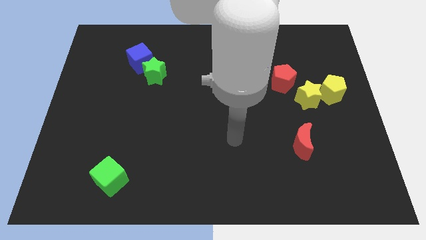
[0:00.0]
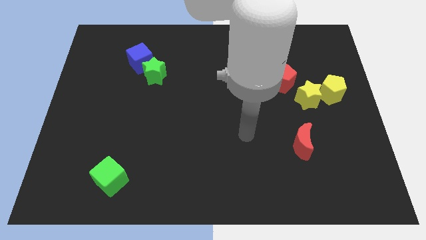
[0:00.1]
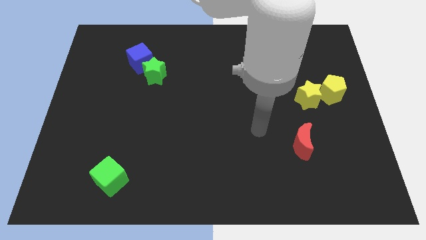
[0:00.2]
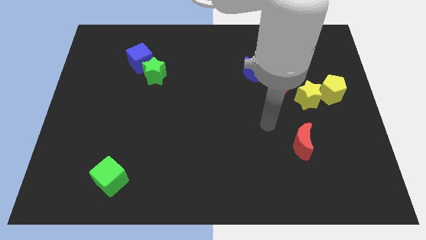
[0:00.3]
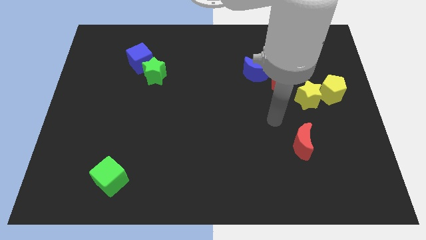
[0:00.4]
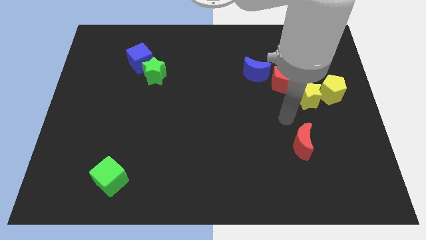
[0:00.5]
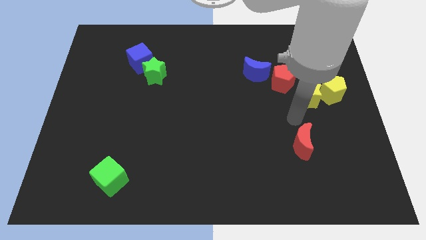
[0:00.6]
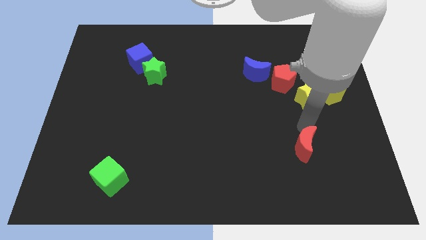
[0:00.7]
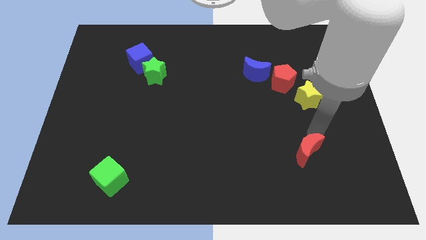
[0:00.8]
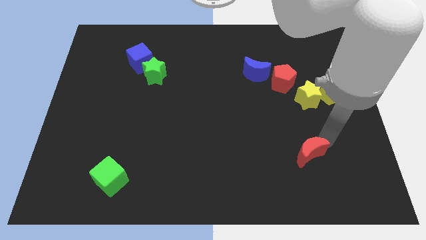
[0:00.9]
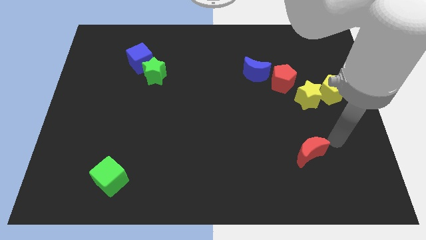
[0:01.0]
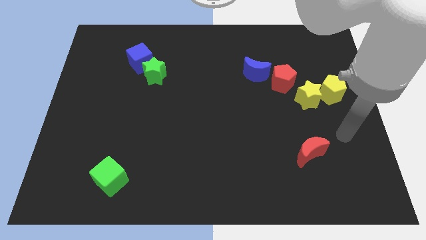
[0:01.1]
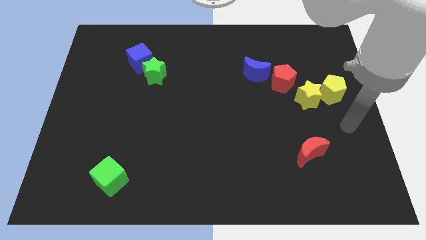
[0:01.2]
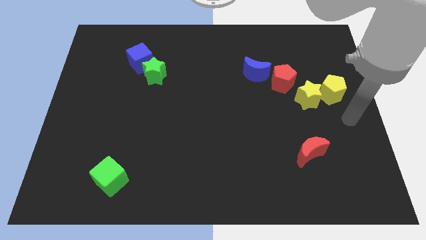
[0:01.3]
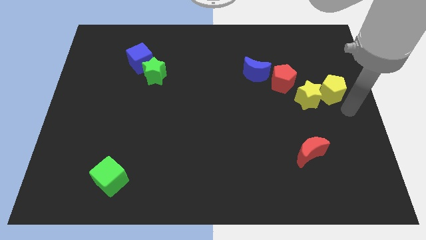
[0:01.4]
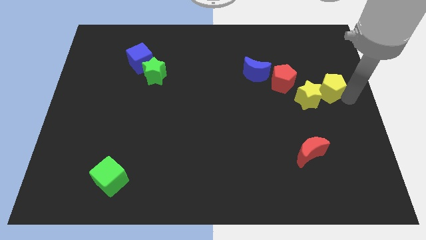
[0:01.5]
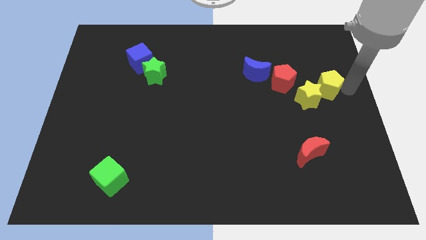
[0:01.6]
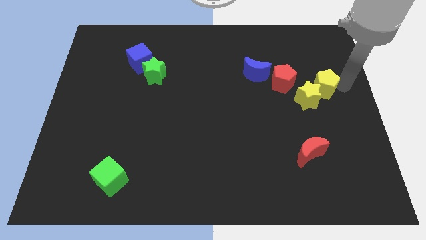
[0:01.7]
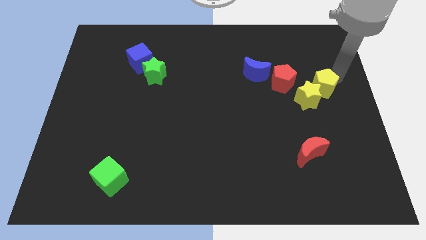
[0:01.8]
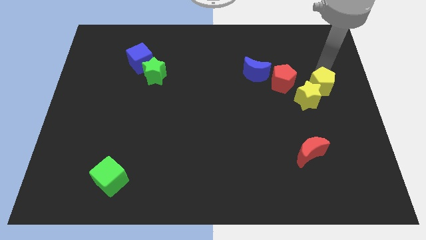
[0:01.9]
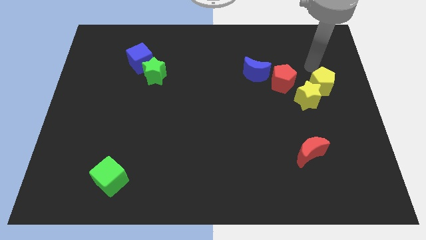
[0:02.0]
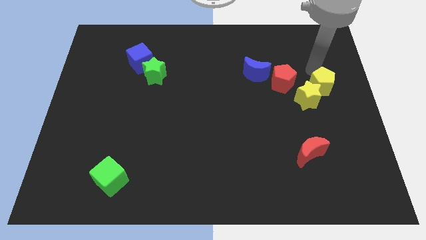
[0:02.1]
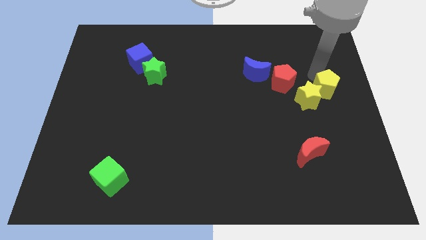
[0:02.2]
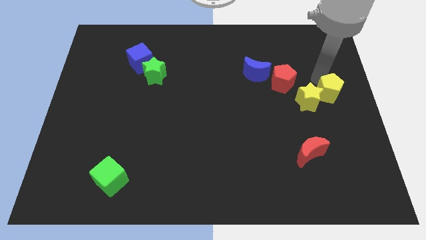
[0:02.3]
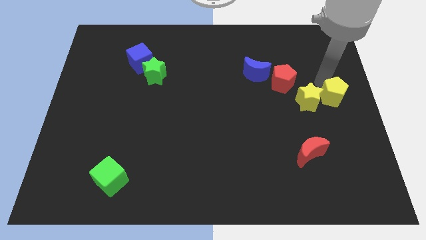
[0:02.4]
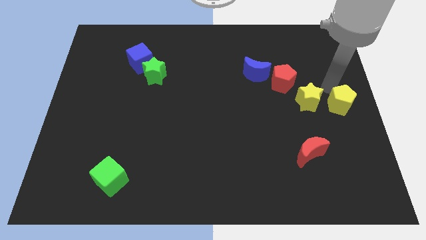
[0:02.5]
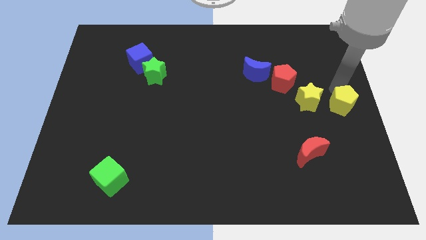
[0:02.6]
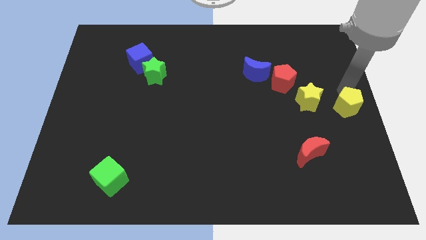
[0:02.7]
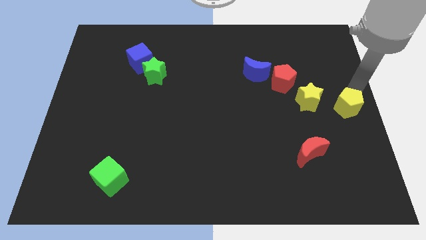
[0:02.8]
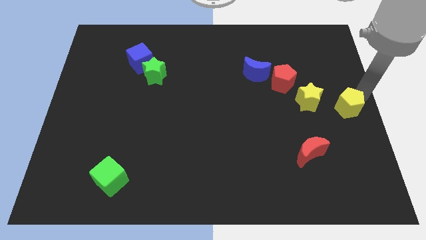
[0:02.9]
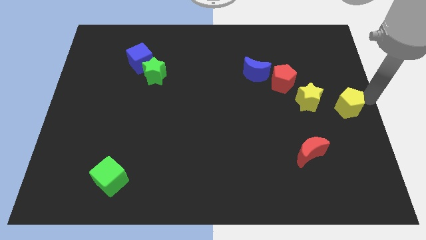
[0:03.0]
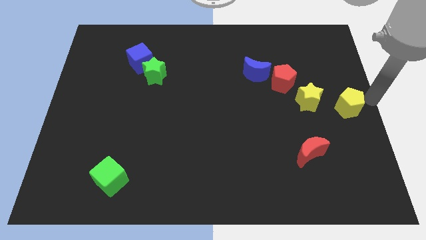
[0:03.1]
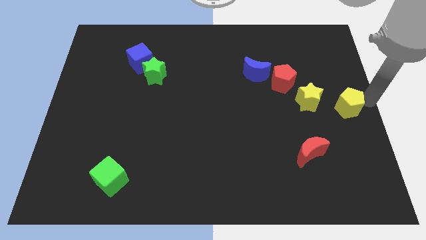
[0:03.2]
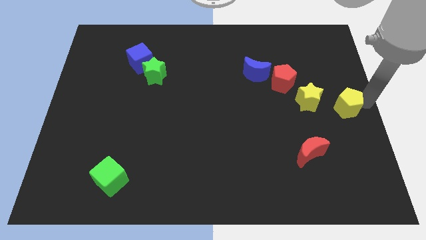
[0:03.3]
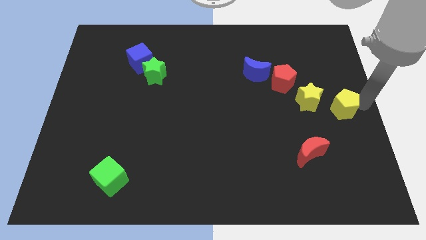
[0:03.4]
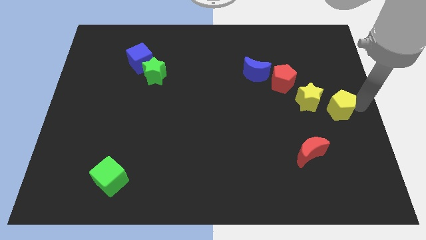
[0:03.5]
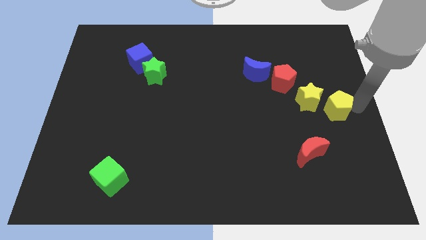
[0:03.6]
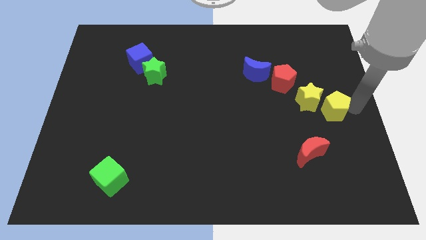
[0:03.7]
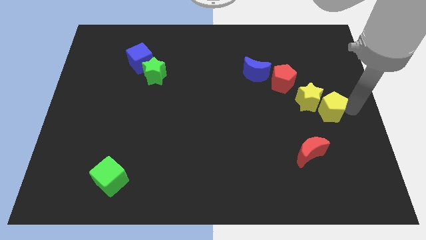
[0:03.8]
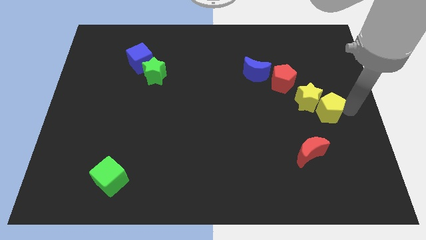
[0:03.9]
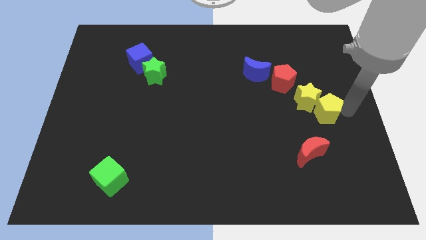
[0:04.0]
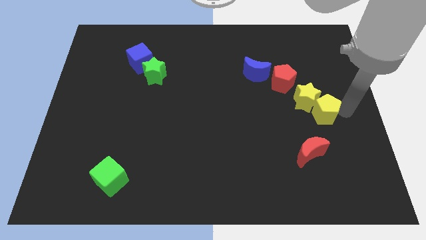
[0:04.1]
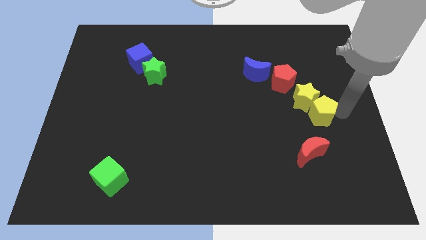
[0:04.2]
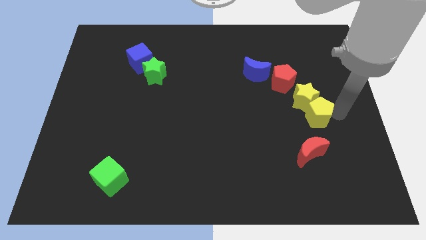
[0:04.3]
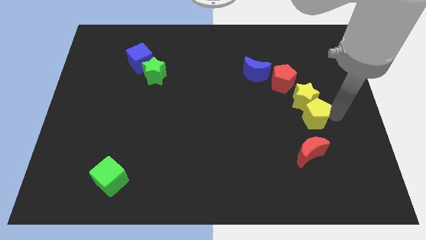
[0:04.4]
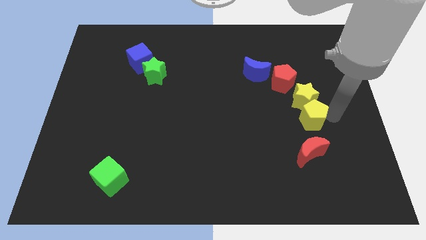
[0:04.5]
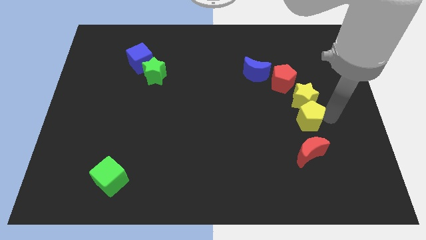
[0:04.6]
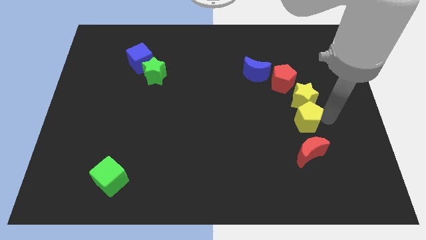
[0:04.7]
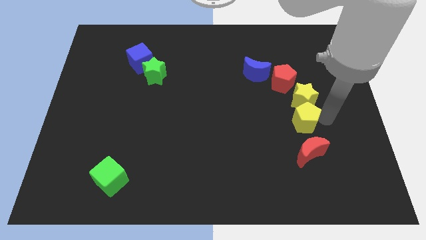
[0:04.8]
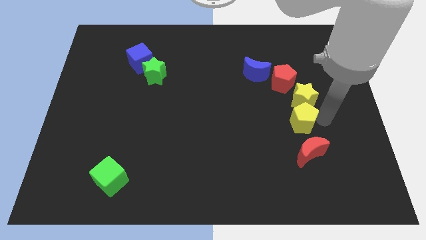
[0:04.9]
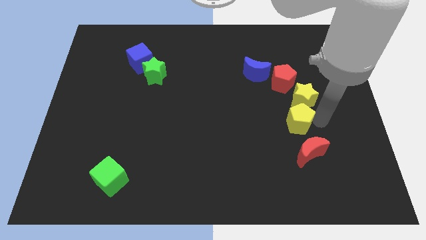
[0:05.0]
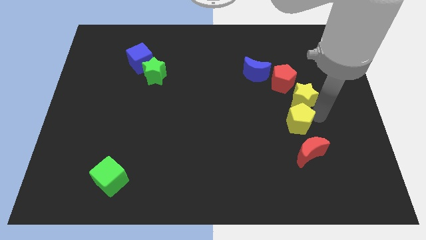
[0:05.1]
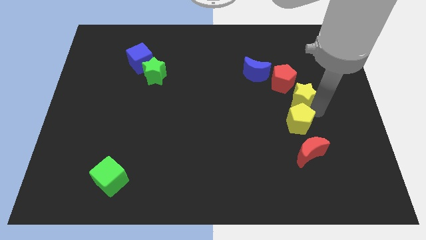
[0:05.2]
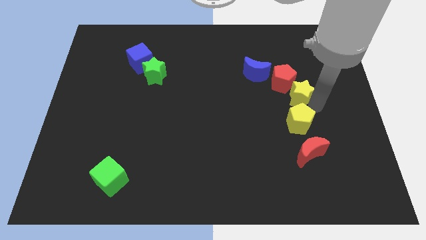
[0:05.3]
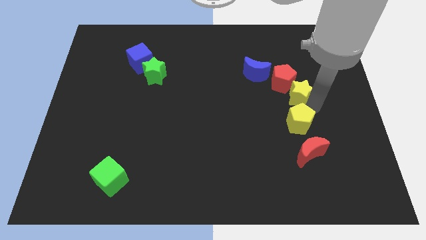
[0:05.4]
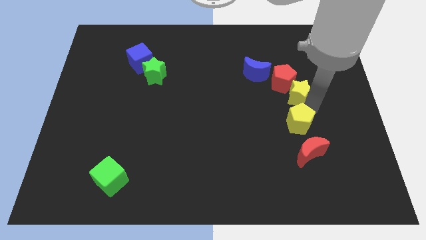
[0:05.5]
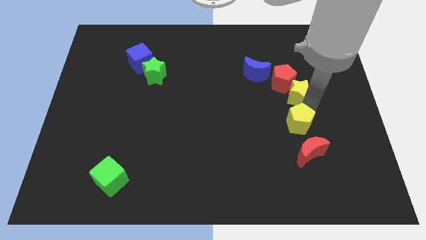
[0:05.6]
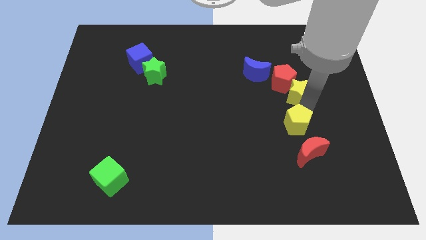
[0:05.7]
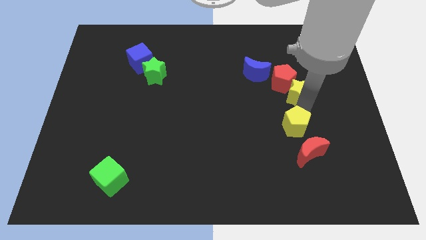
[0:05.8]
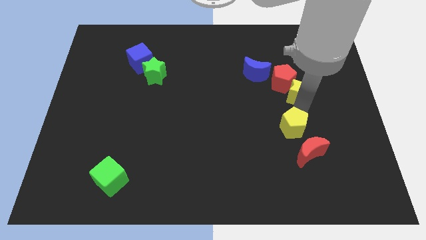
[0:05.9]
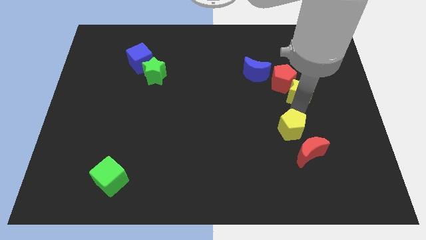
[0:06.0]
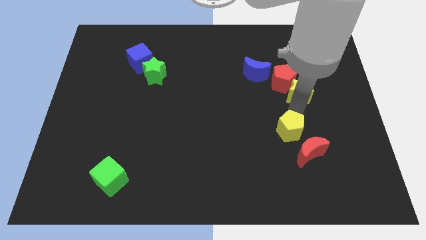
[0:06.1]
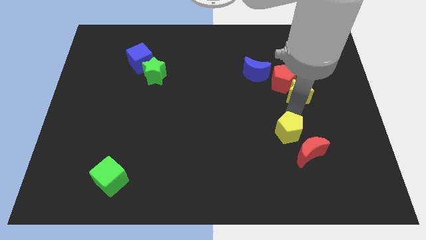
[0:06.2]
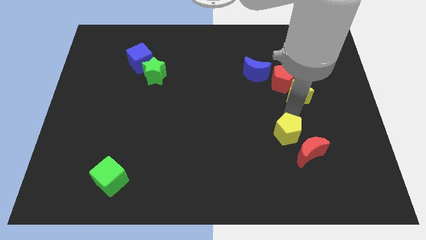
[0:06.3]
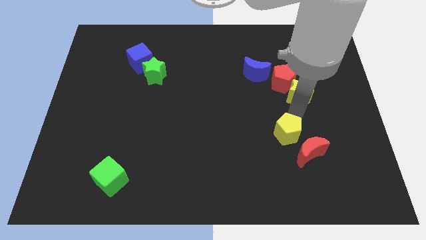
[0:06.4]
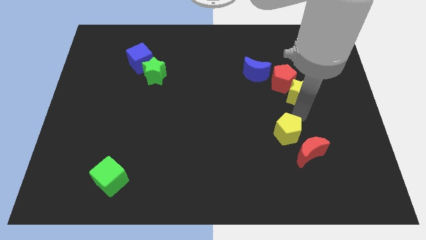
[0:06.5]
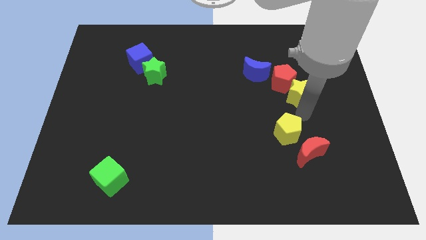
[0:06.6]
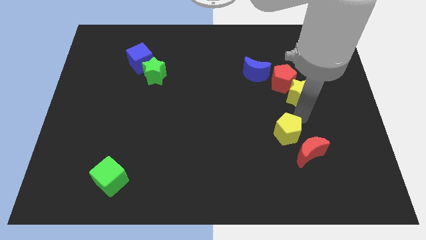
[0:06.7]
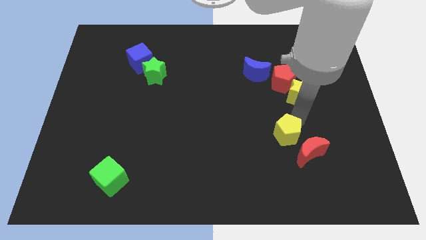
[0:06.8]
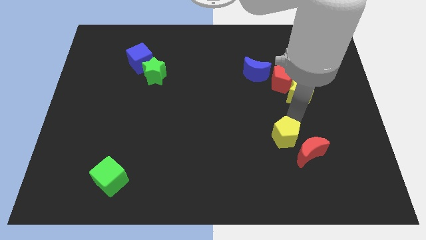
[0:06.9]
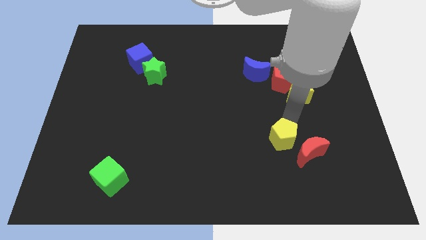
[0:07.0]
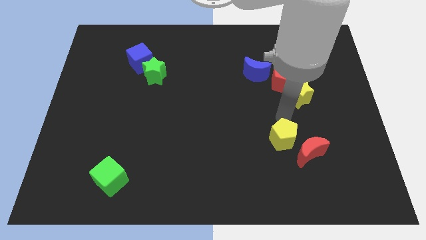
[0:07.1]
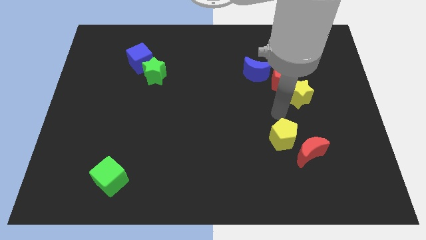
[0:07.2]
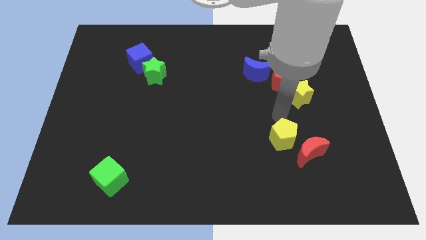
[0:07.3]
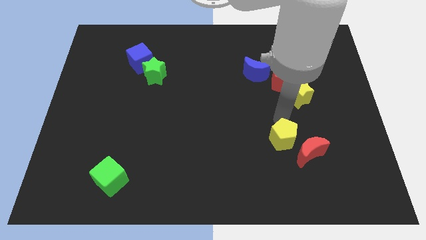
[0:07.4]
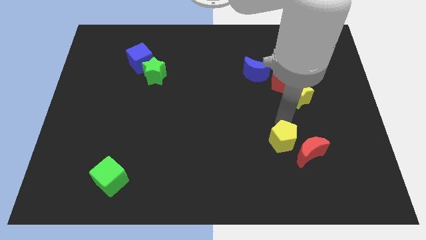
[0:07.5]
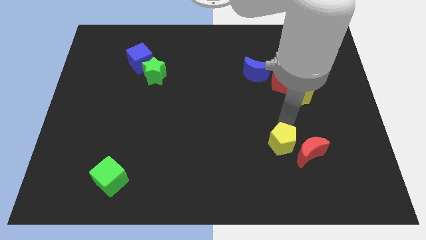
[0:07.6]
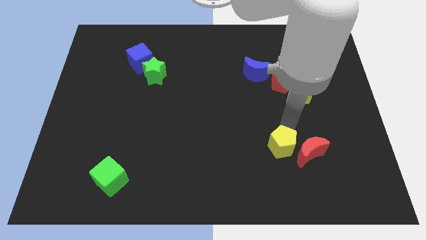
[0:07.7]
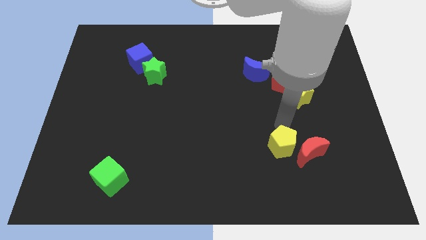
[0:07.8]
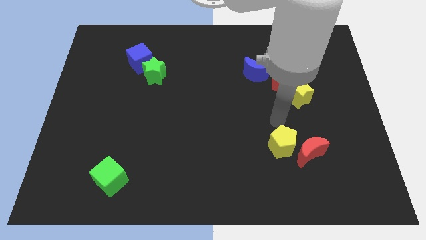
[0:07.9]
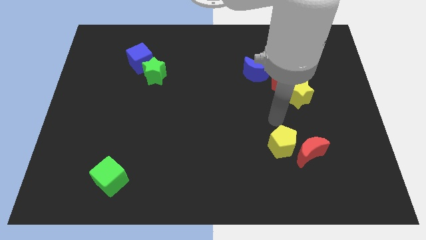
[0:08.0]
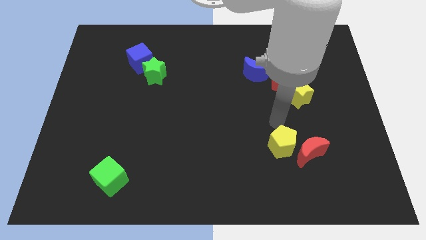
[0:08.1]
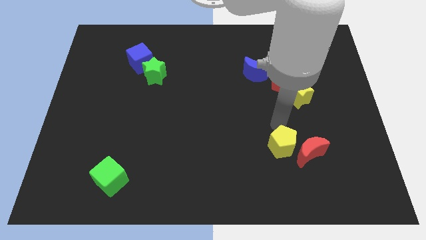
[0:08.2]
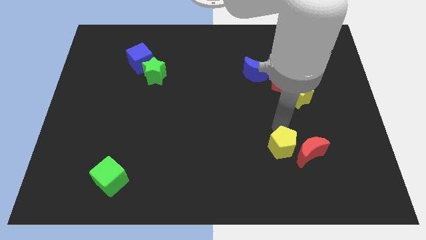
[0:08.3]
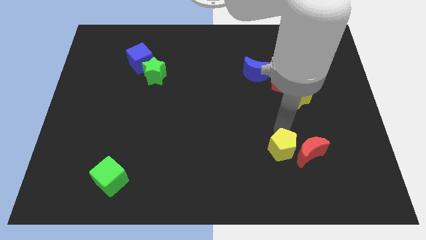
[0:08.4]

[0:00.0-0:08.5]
move the yellow pentagon to the bottom left of the red moon
